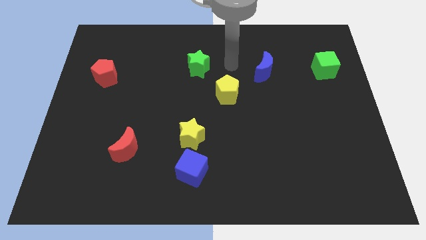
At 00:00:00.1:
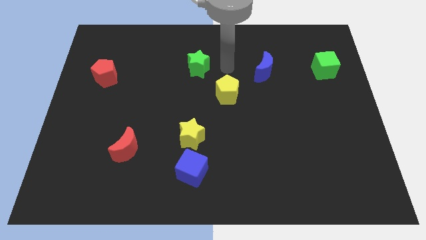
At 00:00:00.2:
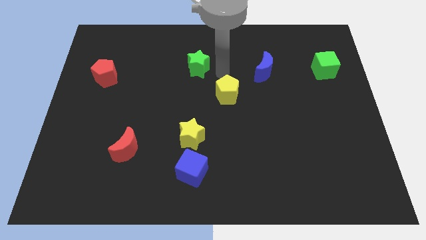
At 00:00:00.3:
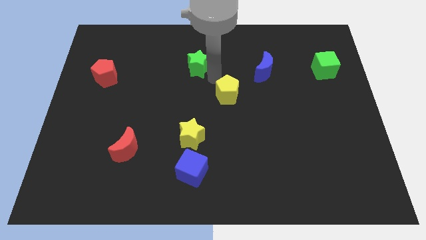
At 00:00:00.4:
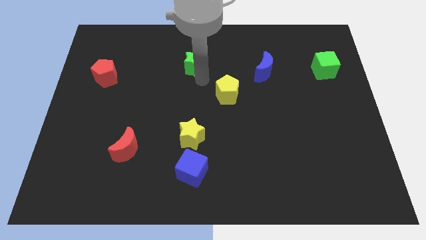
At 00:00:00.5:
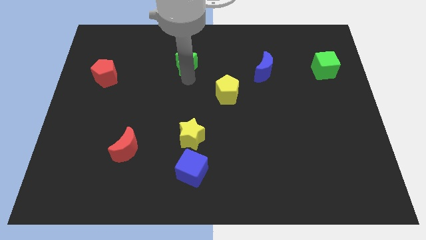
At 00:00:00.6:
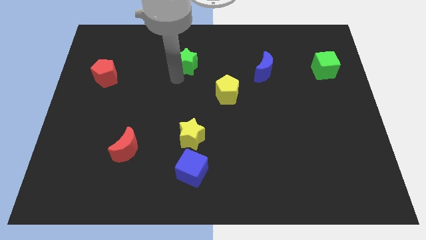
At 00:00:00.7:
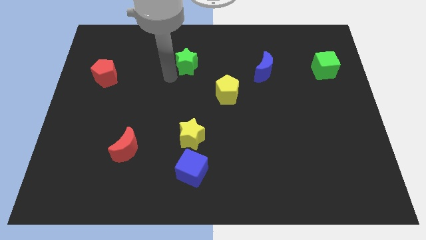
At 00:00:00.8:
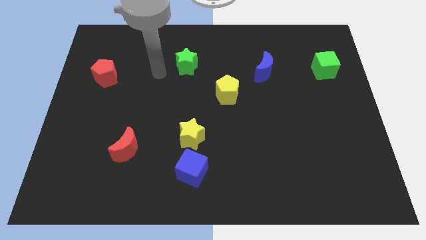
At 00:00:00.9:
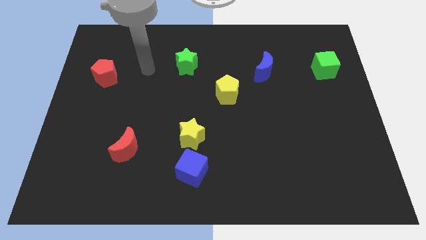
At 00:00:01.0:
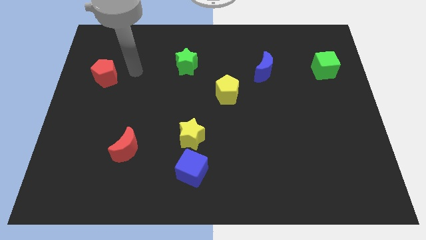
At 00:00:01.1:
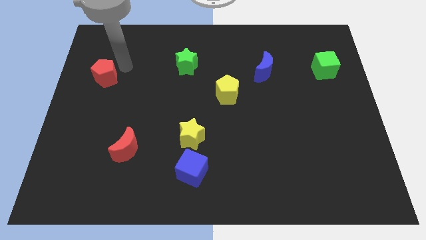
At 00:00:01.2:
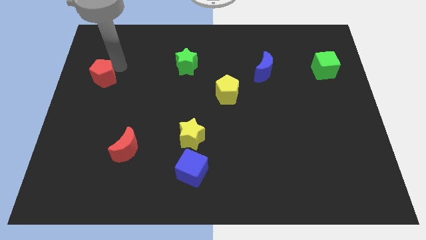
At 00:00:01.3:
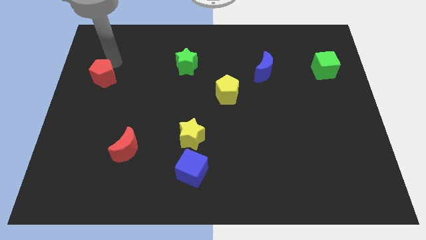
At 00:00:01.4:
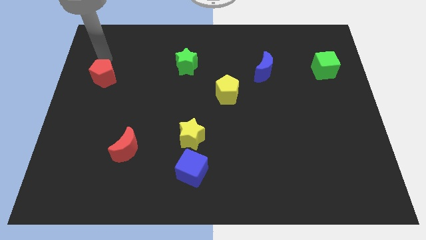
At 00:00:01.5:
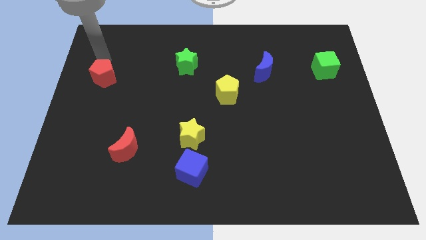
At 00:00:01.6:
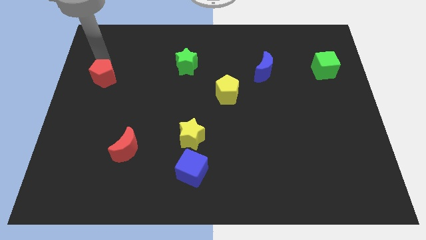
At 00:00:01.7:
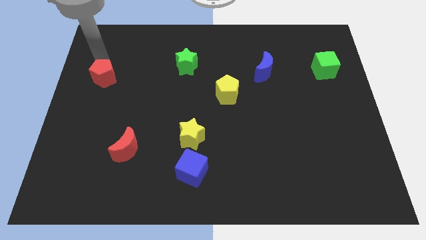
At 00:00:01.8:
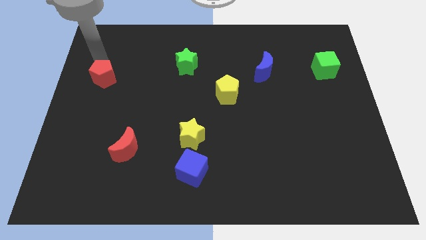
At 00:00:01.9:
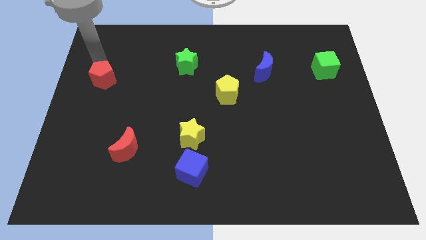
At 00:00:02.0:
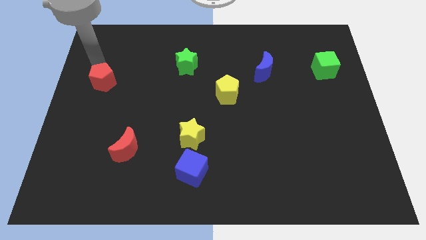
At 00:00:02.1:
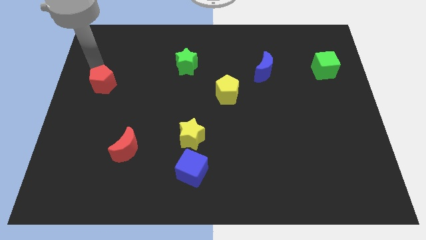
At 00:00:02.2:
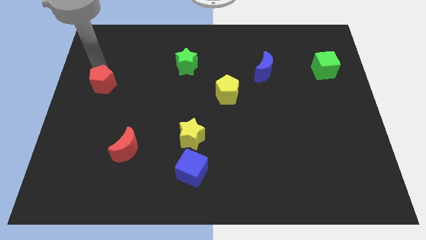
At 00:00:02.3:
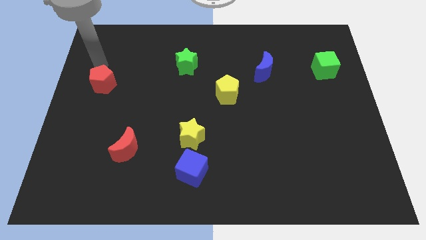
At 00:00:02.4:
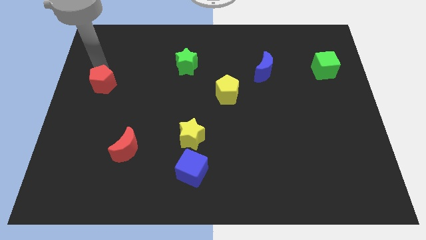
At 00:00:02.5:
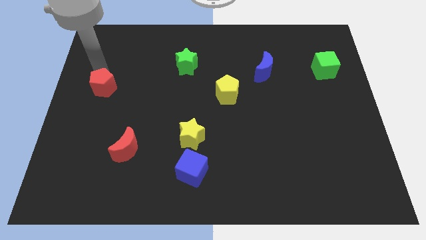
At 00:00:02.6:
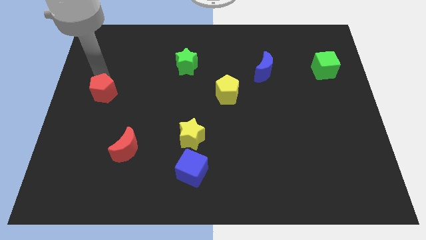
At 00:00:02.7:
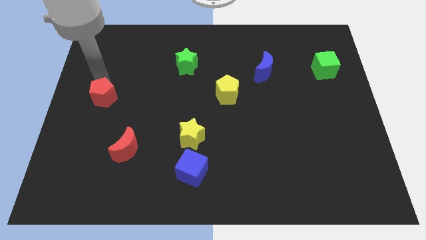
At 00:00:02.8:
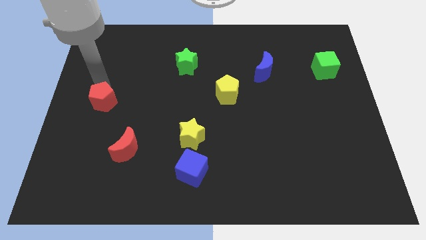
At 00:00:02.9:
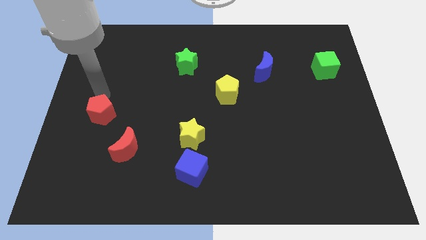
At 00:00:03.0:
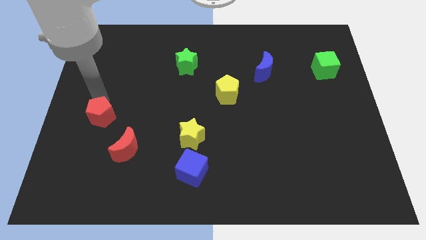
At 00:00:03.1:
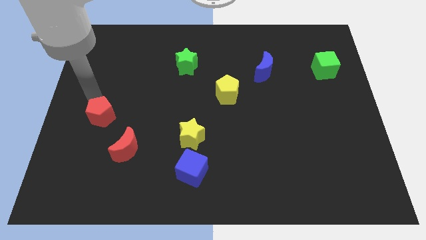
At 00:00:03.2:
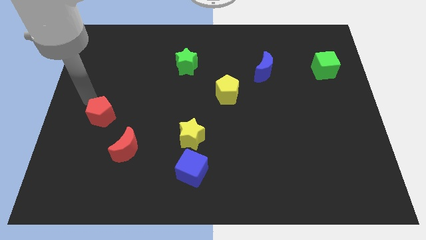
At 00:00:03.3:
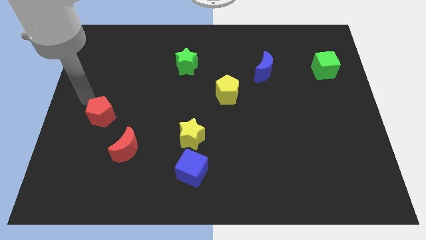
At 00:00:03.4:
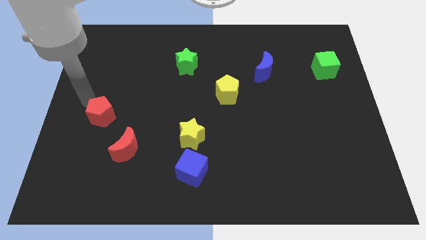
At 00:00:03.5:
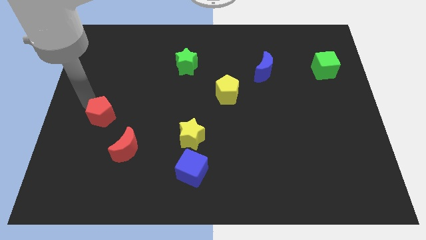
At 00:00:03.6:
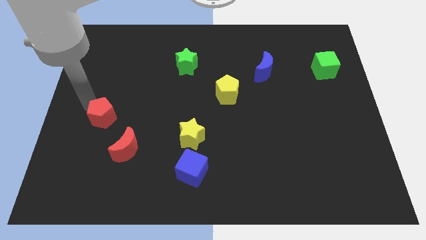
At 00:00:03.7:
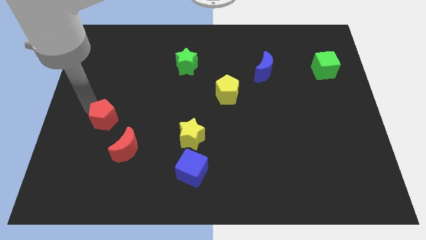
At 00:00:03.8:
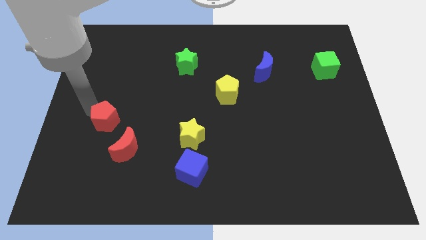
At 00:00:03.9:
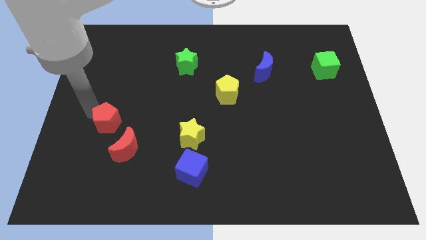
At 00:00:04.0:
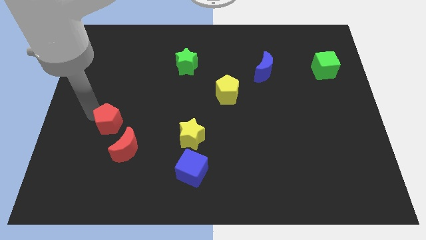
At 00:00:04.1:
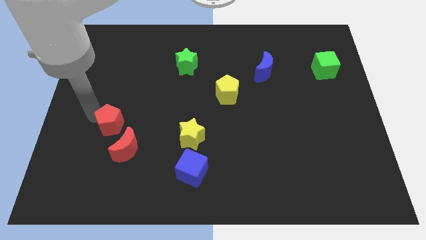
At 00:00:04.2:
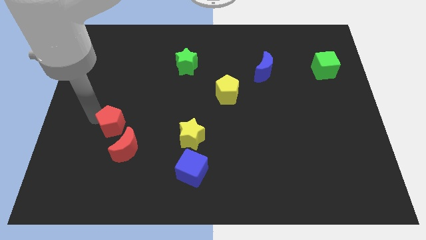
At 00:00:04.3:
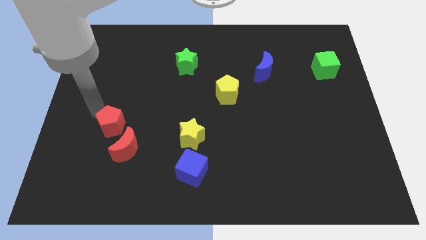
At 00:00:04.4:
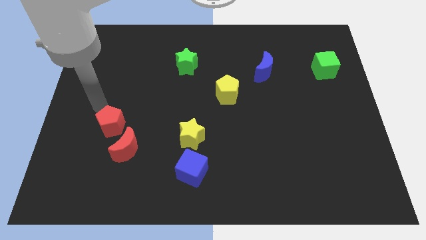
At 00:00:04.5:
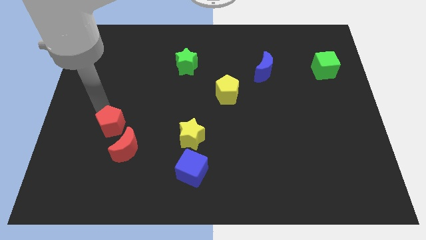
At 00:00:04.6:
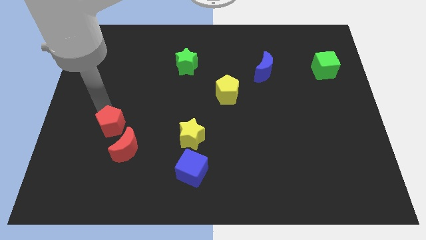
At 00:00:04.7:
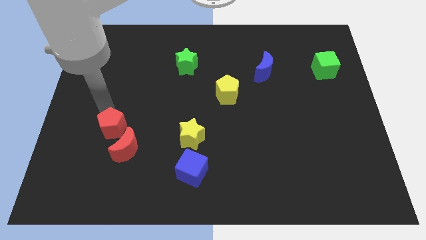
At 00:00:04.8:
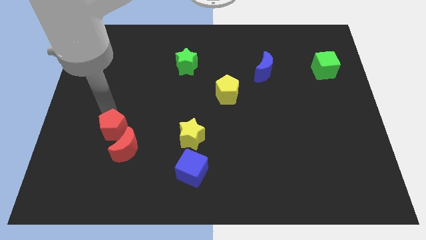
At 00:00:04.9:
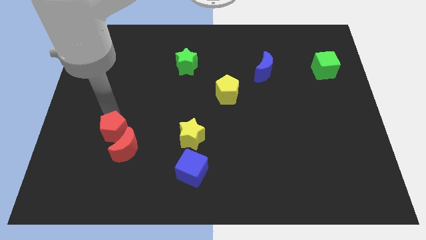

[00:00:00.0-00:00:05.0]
put the red pentagon next to the red moon

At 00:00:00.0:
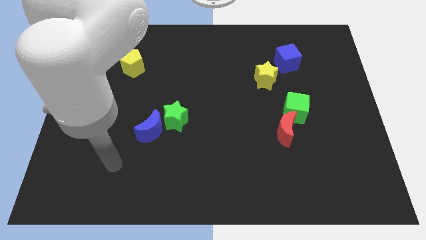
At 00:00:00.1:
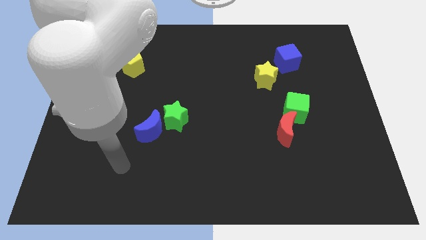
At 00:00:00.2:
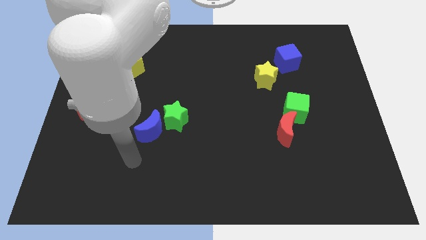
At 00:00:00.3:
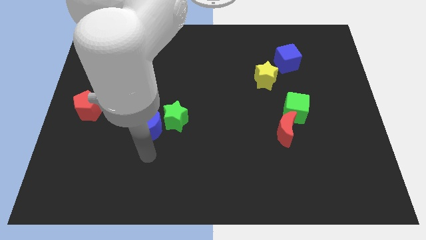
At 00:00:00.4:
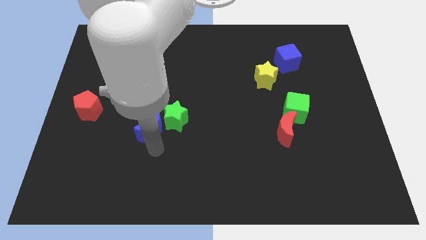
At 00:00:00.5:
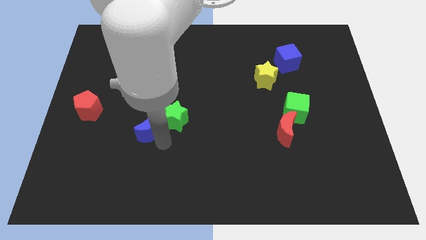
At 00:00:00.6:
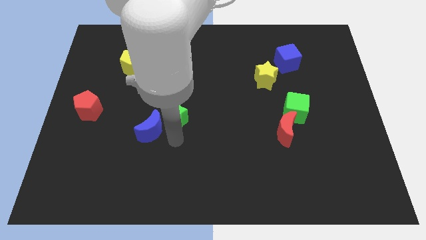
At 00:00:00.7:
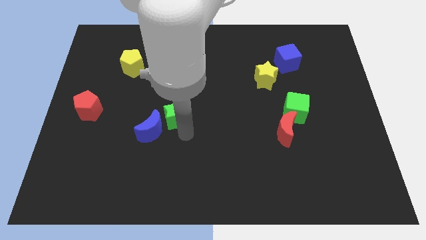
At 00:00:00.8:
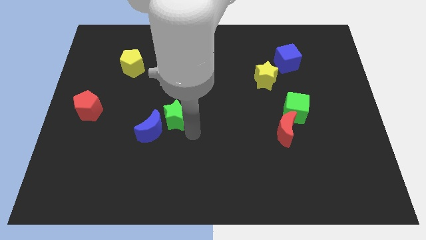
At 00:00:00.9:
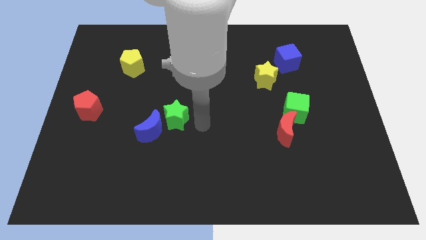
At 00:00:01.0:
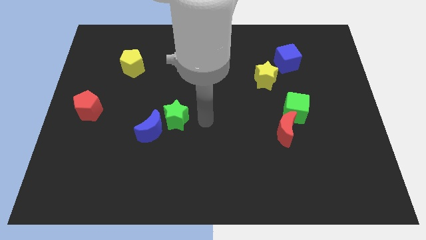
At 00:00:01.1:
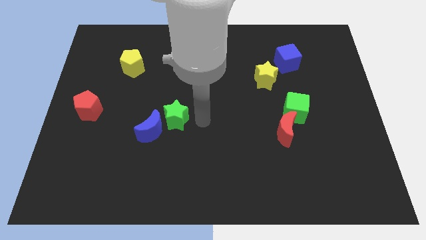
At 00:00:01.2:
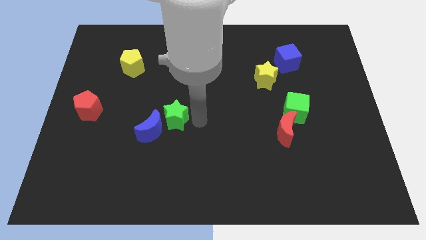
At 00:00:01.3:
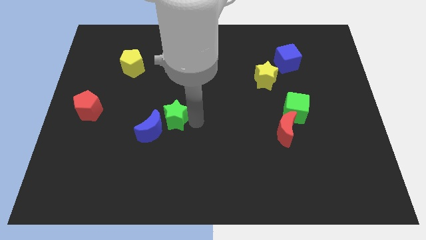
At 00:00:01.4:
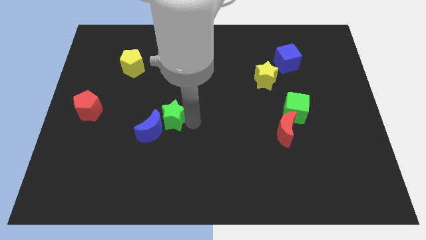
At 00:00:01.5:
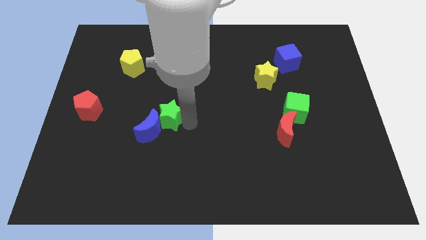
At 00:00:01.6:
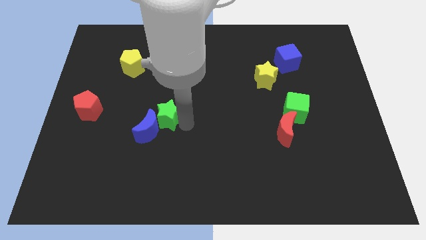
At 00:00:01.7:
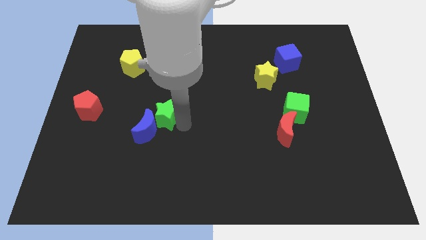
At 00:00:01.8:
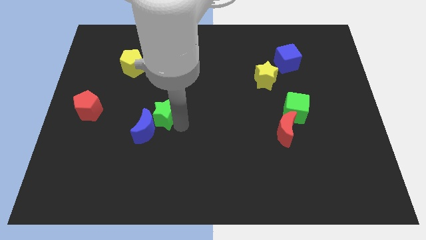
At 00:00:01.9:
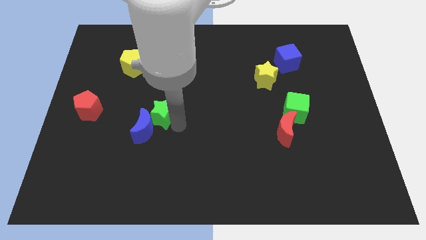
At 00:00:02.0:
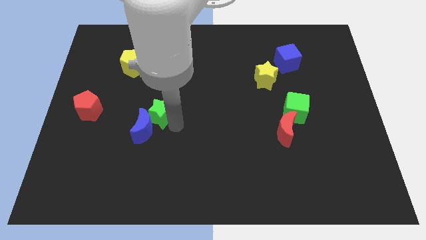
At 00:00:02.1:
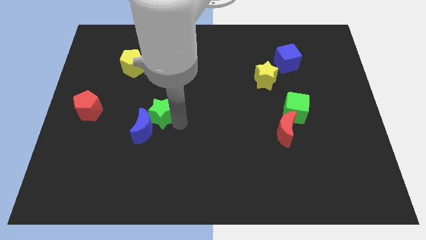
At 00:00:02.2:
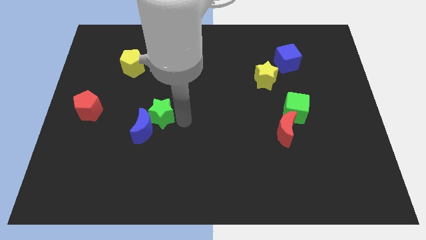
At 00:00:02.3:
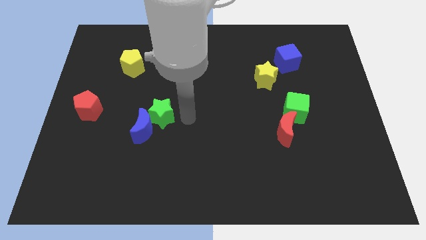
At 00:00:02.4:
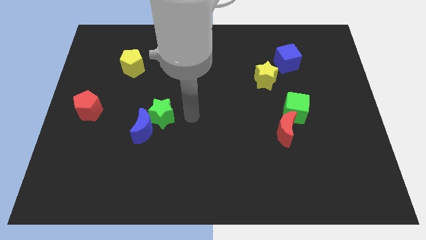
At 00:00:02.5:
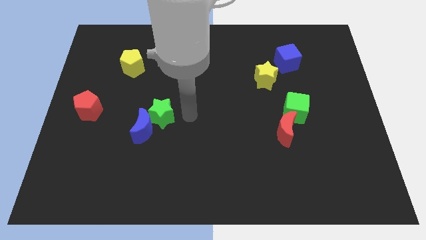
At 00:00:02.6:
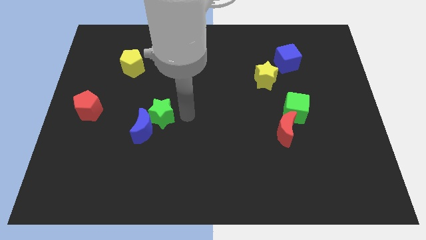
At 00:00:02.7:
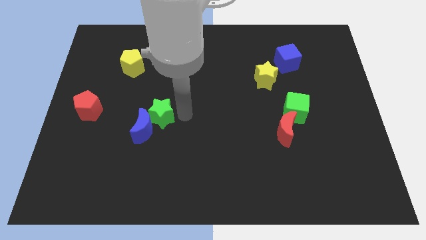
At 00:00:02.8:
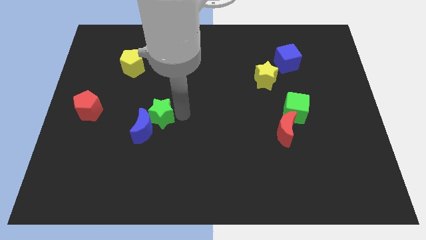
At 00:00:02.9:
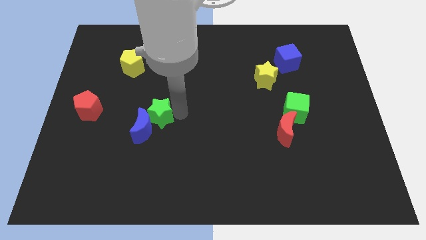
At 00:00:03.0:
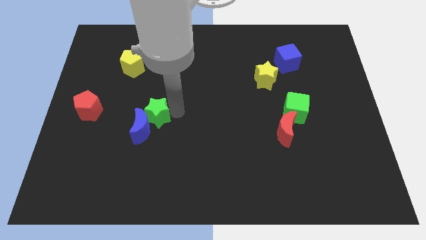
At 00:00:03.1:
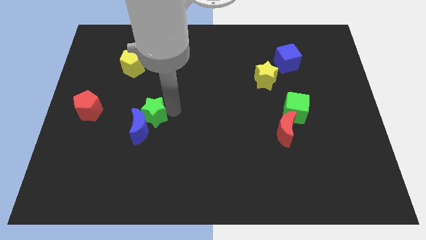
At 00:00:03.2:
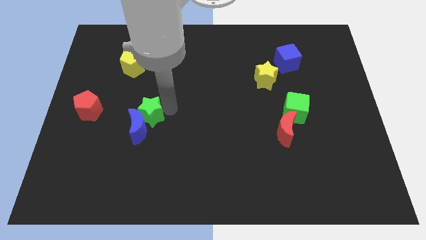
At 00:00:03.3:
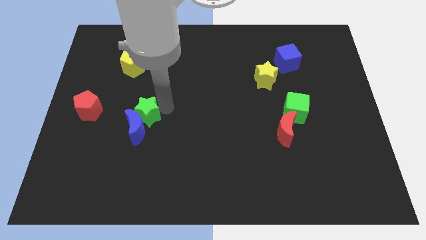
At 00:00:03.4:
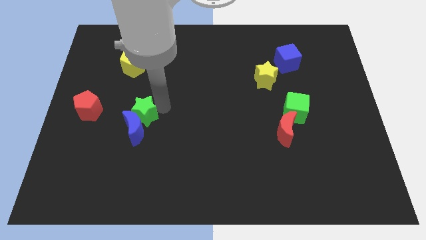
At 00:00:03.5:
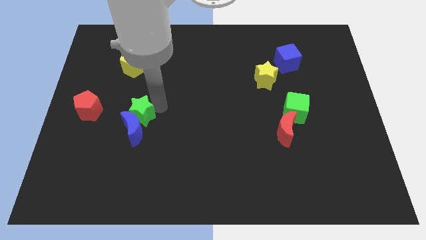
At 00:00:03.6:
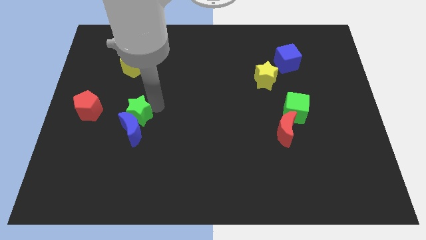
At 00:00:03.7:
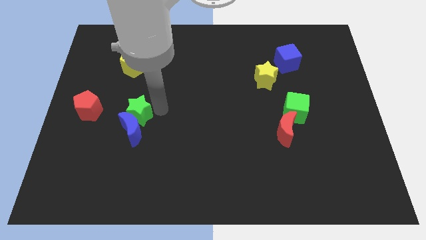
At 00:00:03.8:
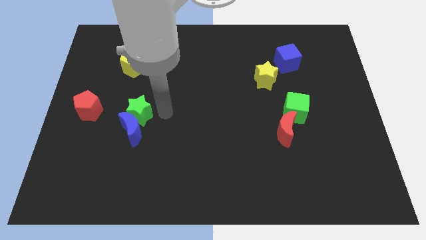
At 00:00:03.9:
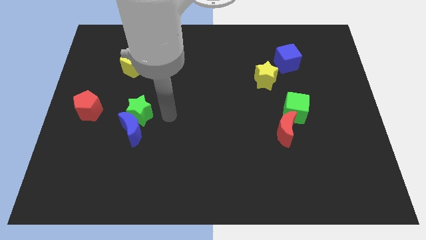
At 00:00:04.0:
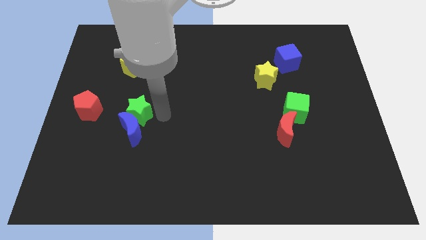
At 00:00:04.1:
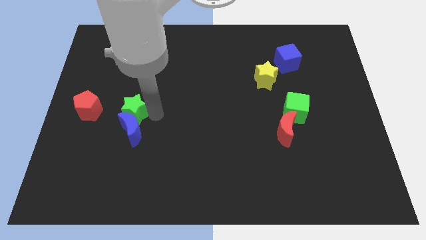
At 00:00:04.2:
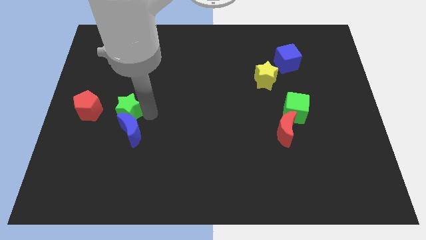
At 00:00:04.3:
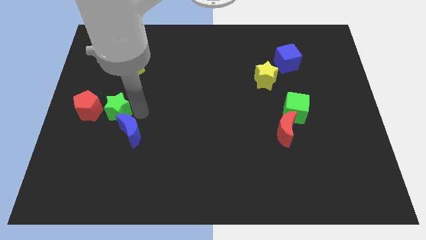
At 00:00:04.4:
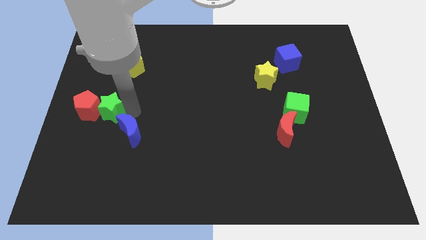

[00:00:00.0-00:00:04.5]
move the green star towards the red pentagon
